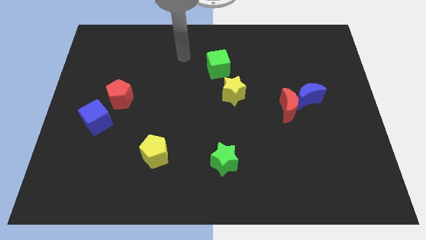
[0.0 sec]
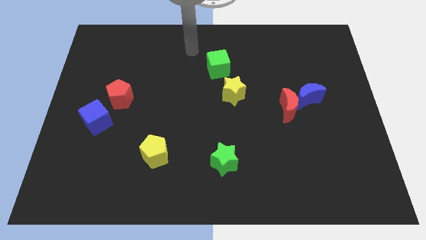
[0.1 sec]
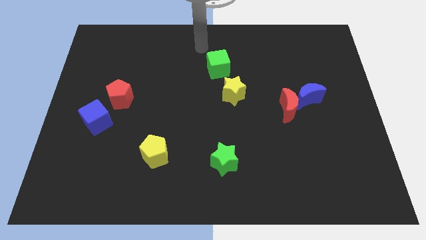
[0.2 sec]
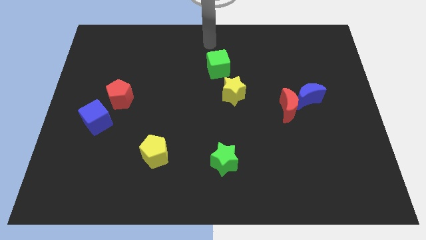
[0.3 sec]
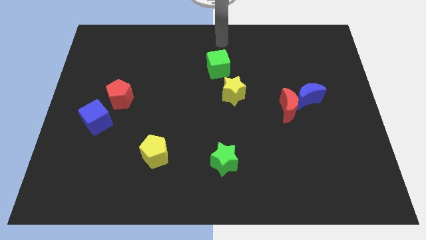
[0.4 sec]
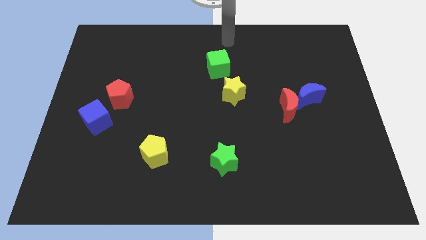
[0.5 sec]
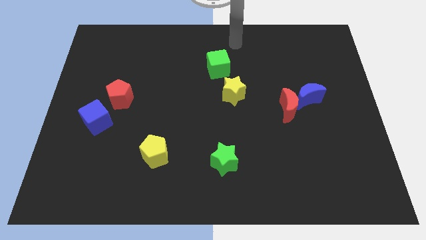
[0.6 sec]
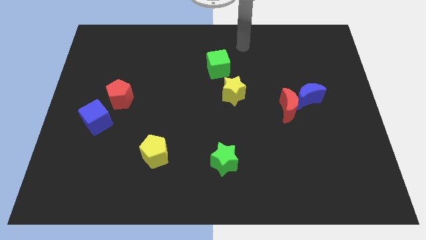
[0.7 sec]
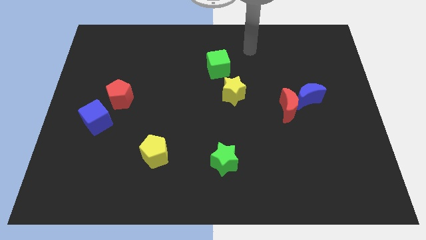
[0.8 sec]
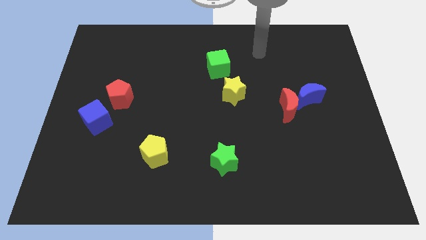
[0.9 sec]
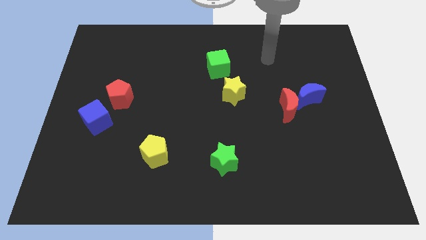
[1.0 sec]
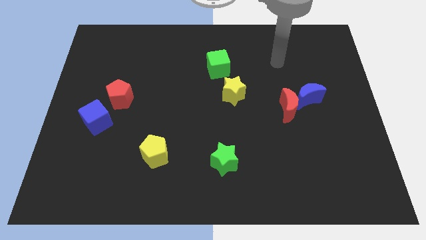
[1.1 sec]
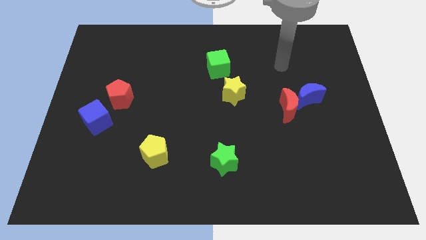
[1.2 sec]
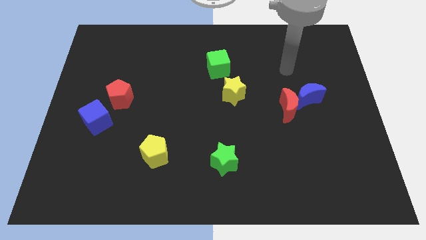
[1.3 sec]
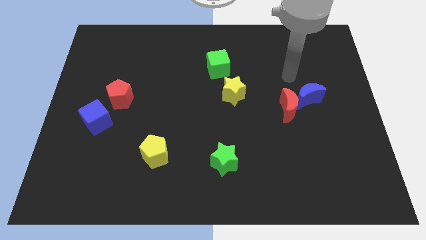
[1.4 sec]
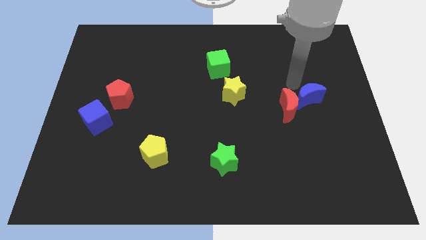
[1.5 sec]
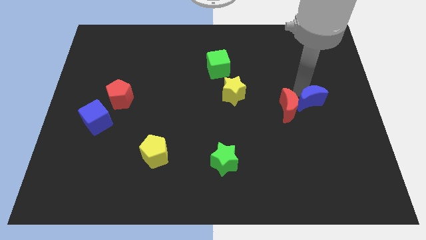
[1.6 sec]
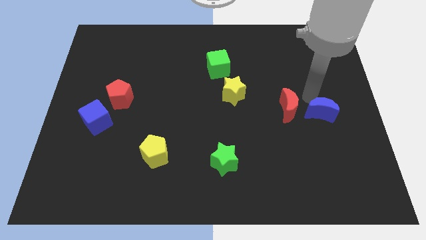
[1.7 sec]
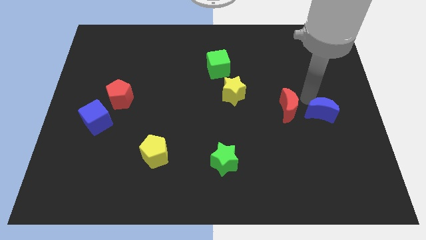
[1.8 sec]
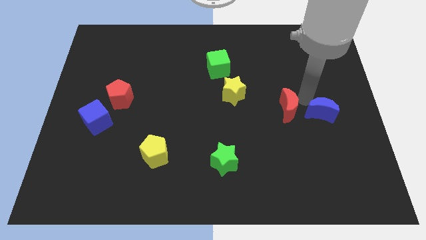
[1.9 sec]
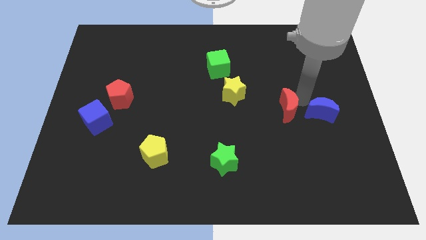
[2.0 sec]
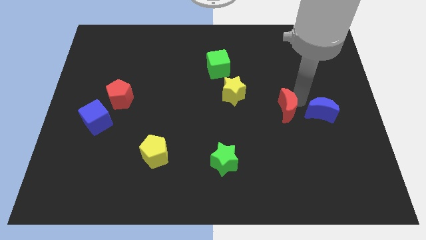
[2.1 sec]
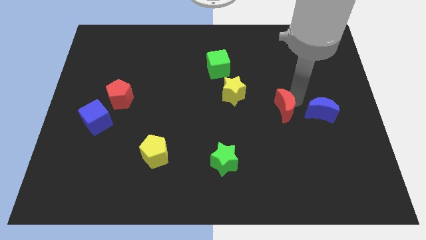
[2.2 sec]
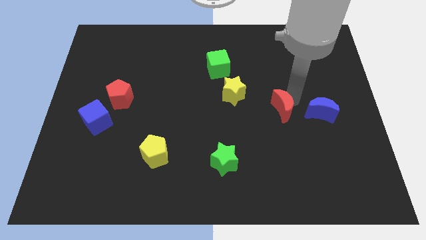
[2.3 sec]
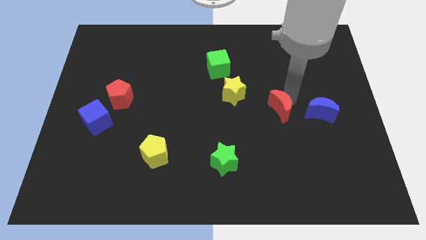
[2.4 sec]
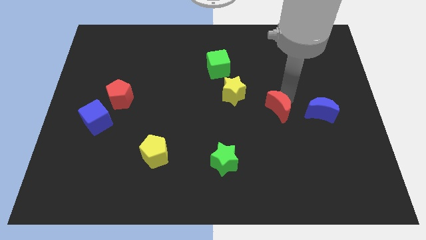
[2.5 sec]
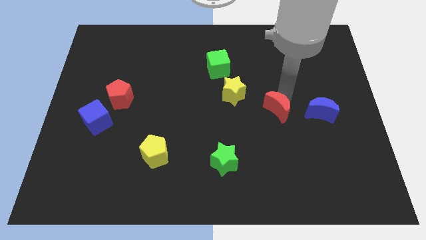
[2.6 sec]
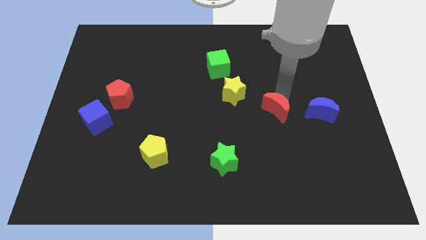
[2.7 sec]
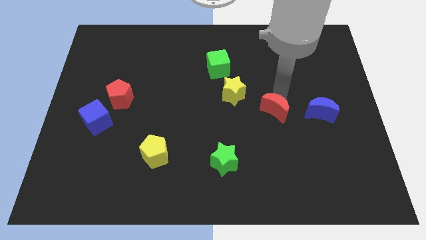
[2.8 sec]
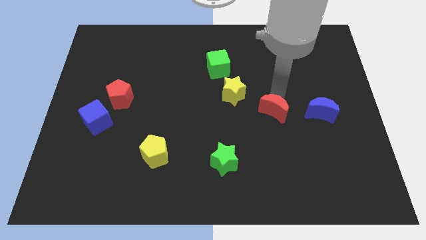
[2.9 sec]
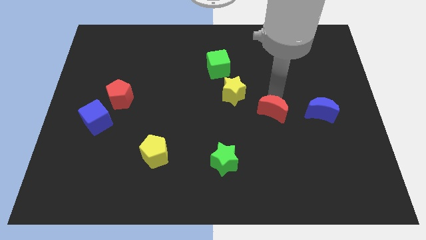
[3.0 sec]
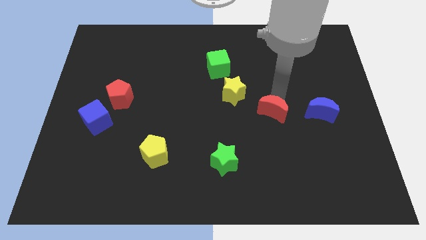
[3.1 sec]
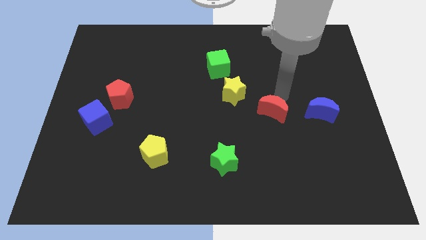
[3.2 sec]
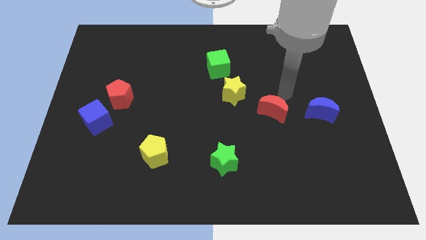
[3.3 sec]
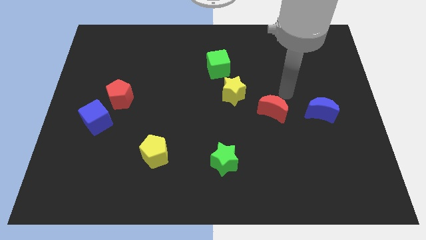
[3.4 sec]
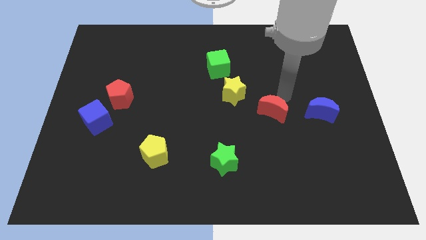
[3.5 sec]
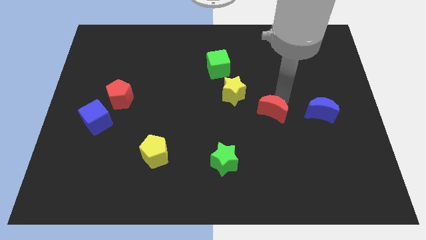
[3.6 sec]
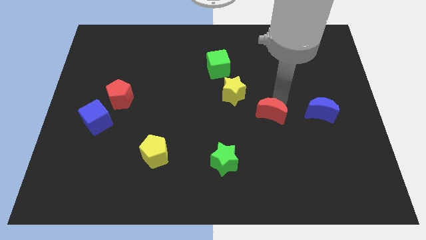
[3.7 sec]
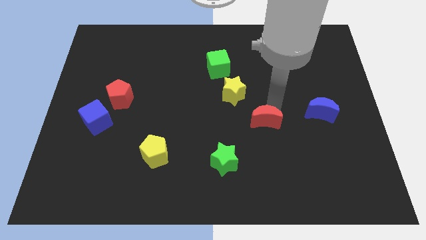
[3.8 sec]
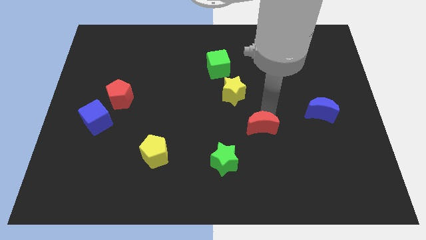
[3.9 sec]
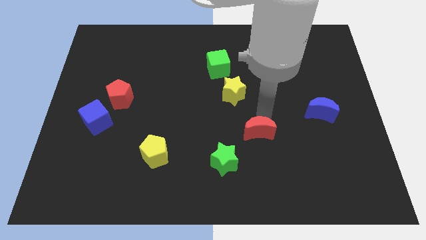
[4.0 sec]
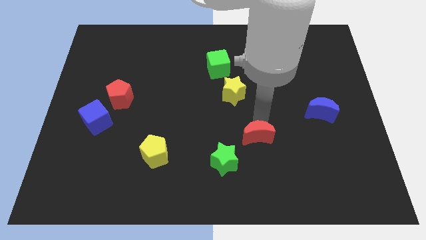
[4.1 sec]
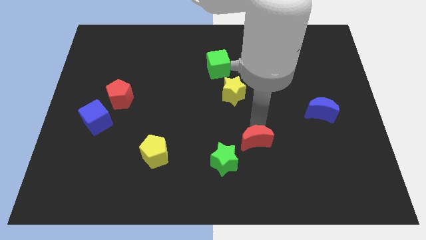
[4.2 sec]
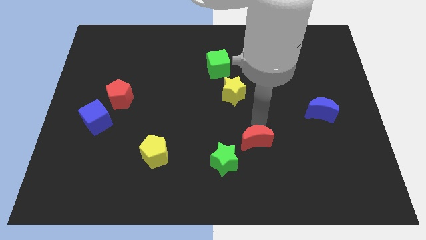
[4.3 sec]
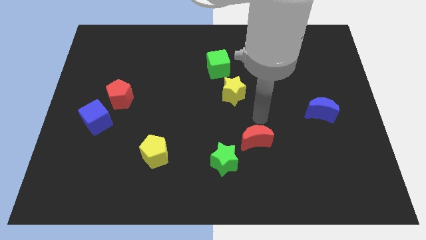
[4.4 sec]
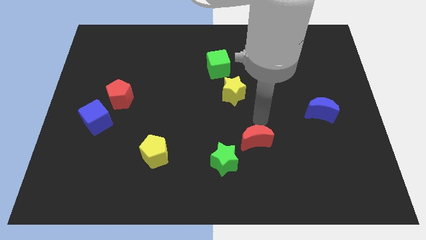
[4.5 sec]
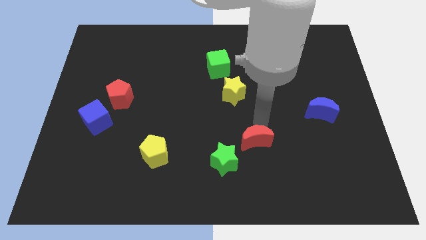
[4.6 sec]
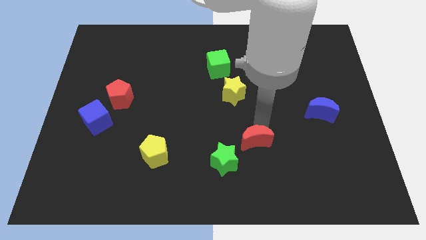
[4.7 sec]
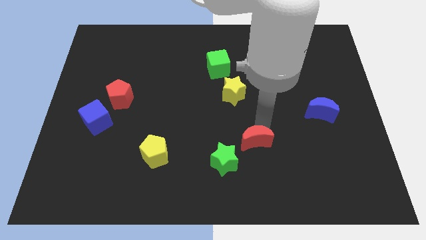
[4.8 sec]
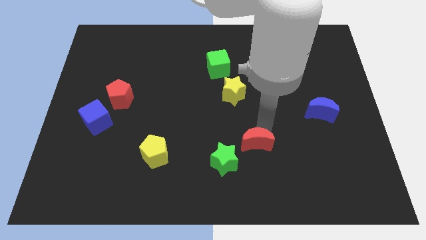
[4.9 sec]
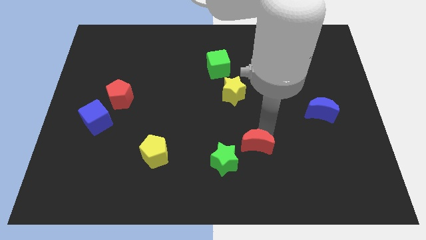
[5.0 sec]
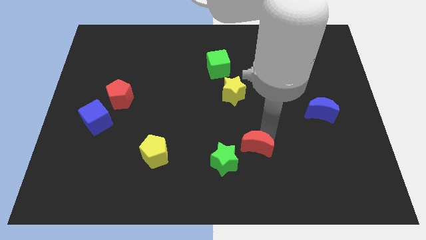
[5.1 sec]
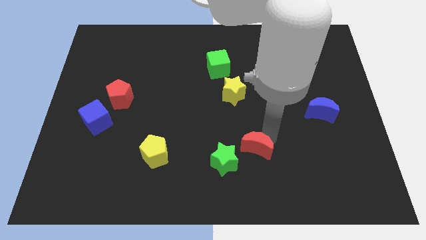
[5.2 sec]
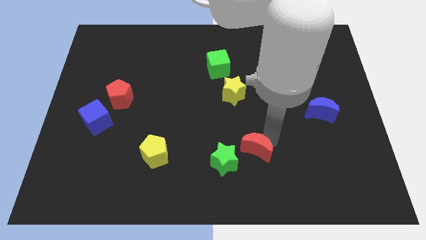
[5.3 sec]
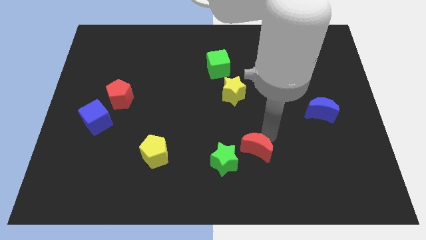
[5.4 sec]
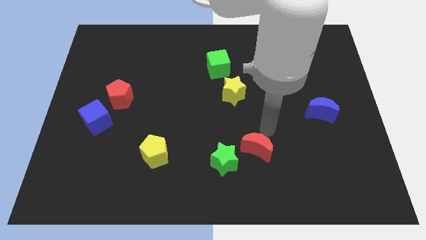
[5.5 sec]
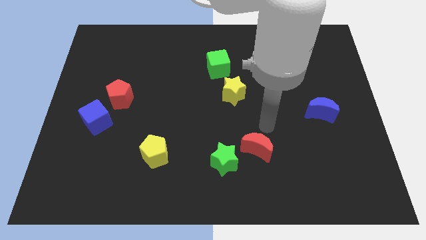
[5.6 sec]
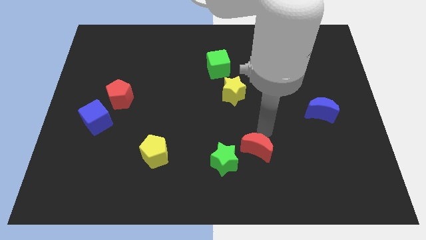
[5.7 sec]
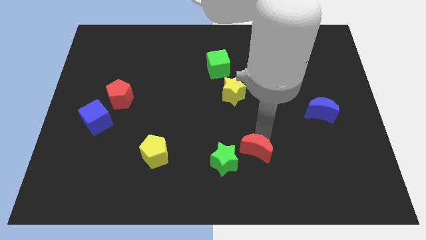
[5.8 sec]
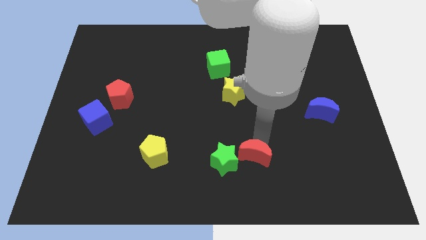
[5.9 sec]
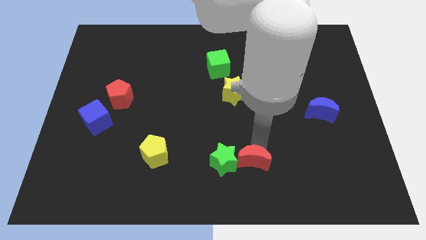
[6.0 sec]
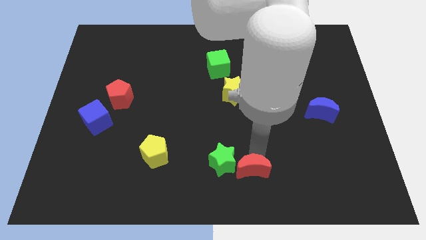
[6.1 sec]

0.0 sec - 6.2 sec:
slide the red moon to the bottom
